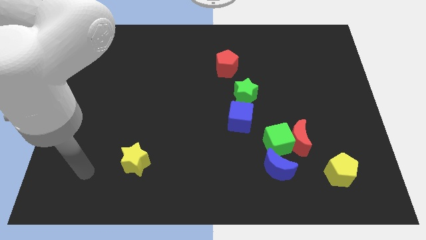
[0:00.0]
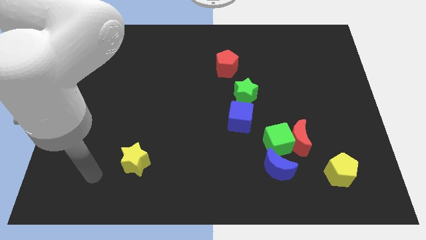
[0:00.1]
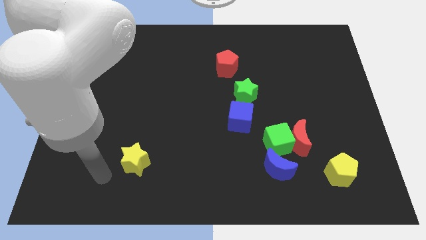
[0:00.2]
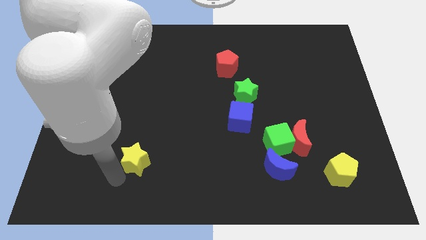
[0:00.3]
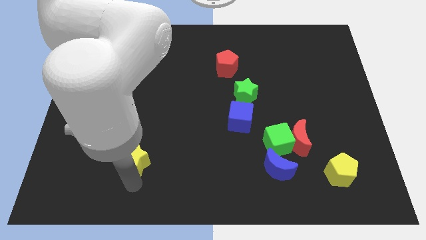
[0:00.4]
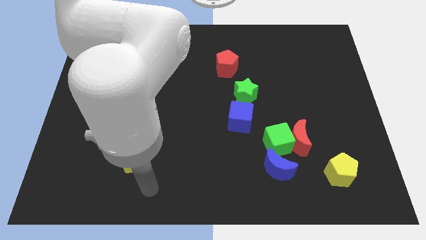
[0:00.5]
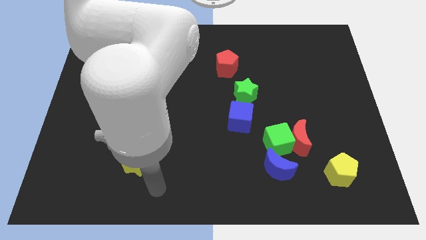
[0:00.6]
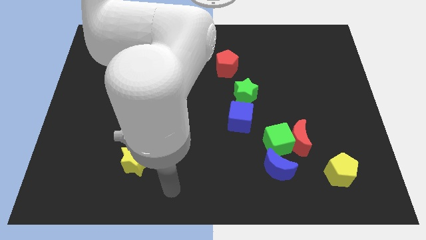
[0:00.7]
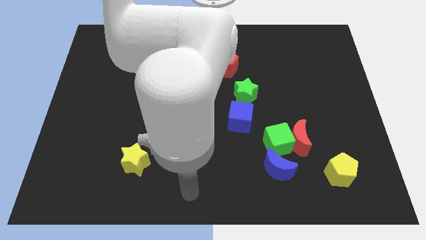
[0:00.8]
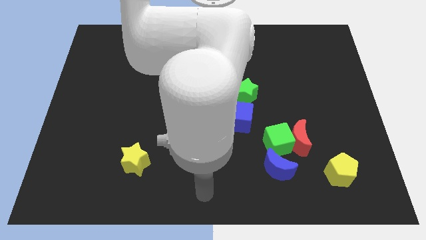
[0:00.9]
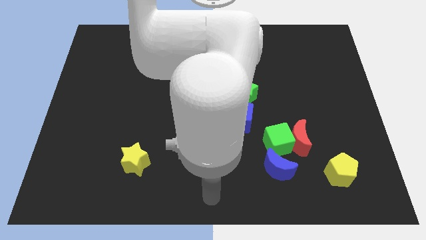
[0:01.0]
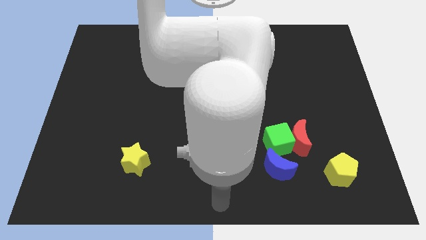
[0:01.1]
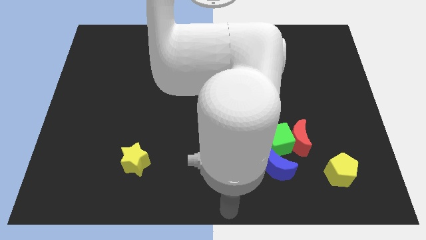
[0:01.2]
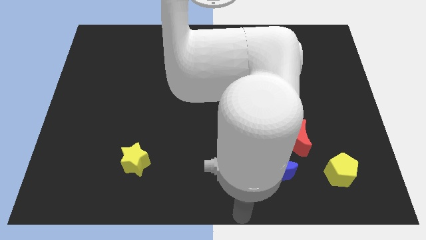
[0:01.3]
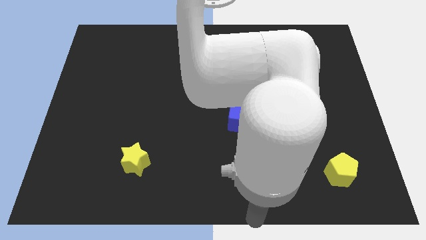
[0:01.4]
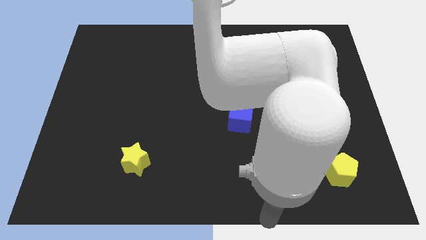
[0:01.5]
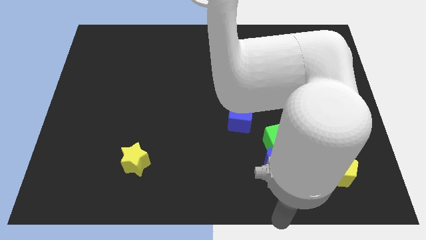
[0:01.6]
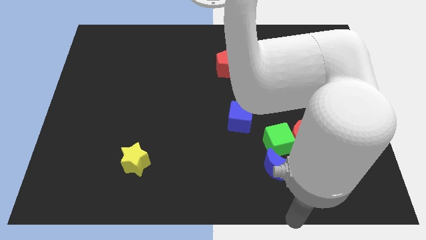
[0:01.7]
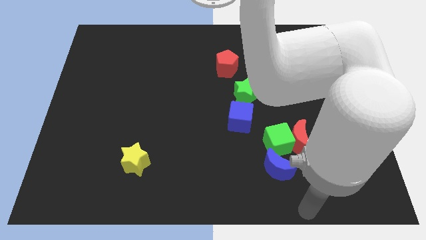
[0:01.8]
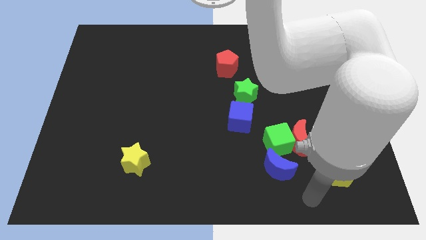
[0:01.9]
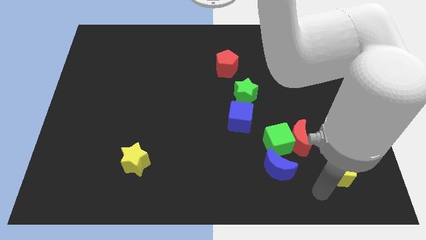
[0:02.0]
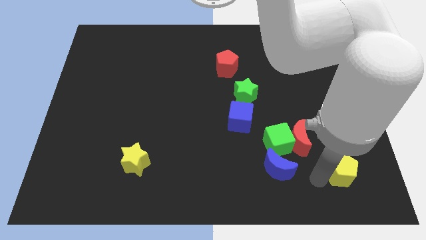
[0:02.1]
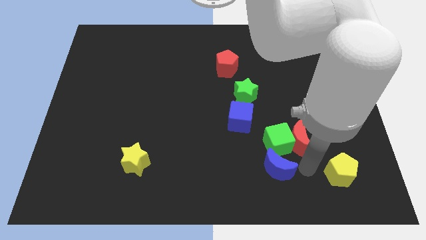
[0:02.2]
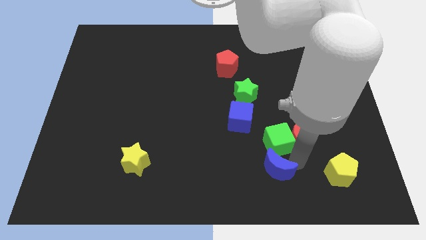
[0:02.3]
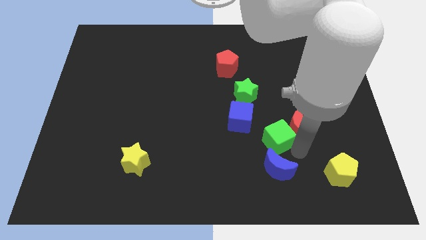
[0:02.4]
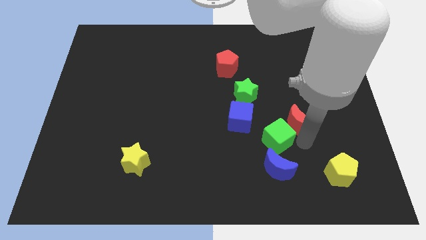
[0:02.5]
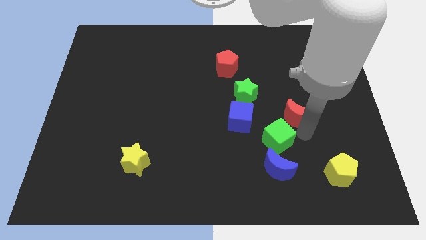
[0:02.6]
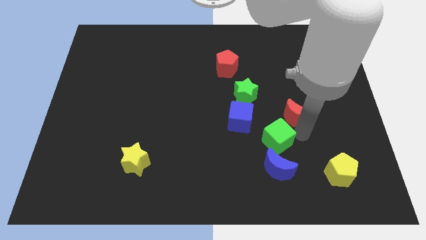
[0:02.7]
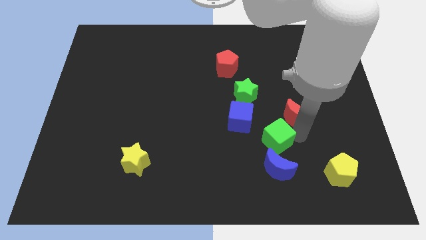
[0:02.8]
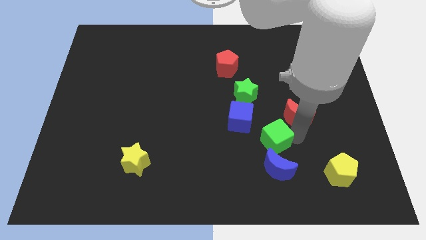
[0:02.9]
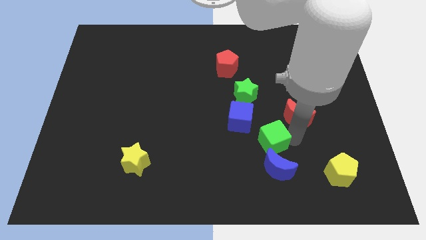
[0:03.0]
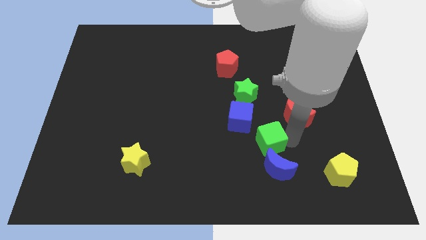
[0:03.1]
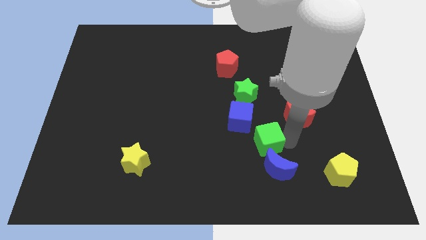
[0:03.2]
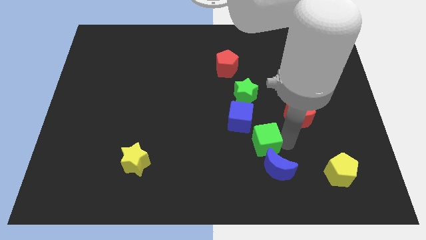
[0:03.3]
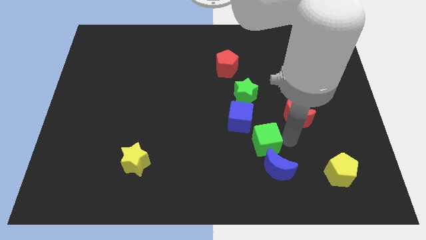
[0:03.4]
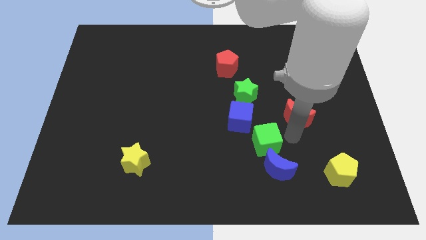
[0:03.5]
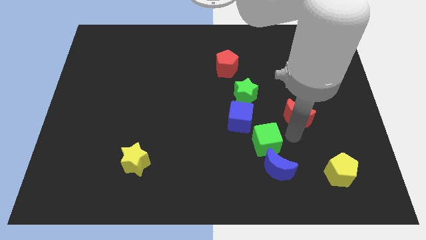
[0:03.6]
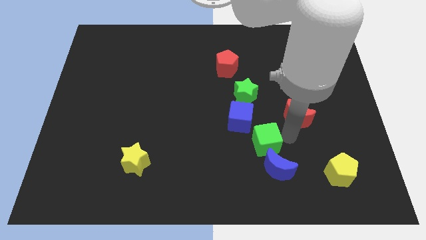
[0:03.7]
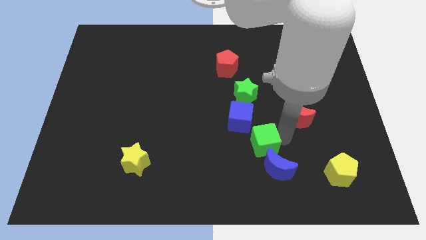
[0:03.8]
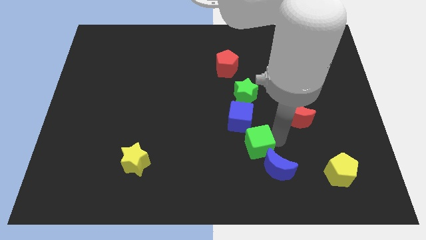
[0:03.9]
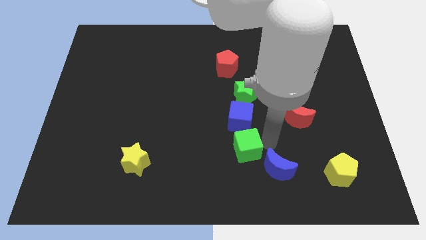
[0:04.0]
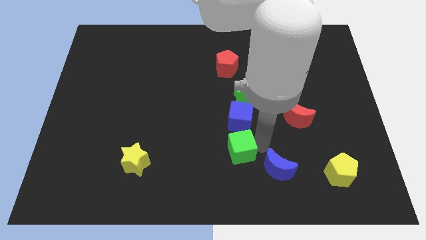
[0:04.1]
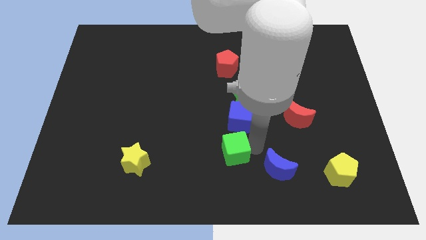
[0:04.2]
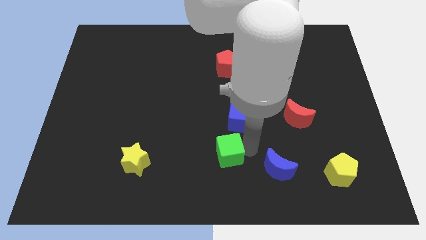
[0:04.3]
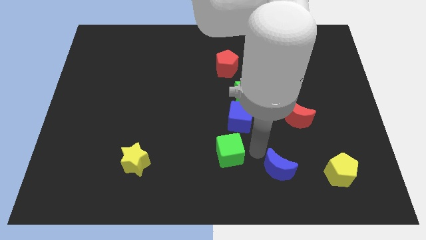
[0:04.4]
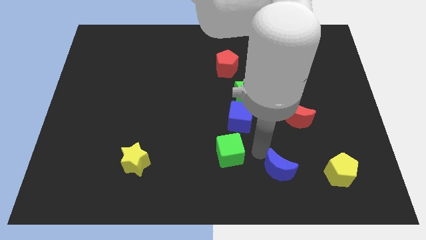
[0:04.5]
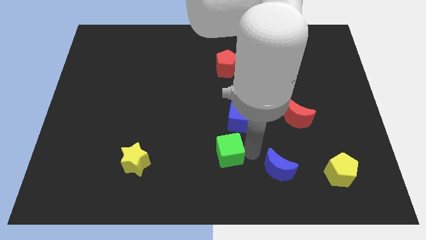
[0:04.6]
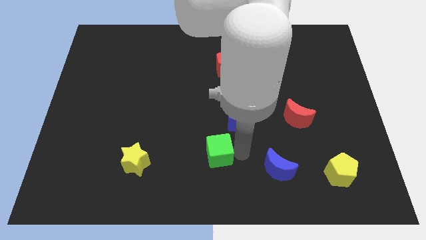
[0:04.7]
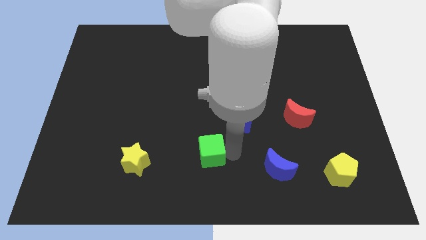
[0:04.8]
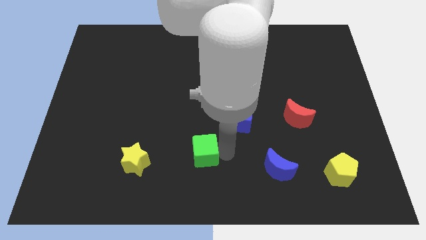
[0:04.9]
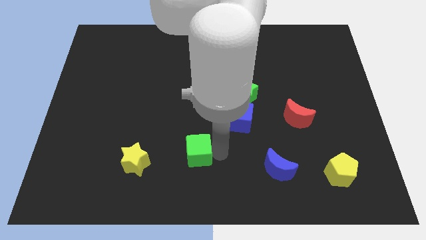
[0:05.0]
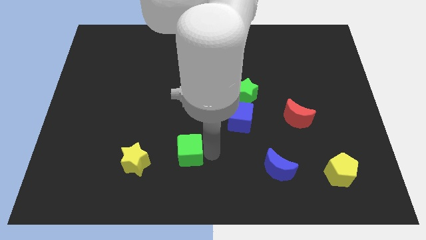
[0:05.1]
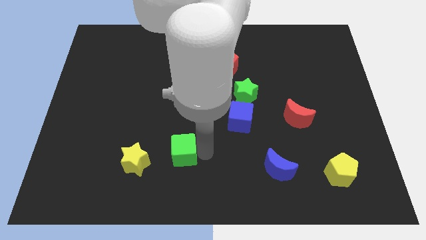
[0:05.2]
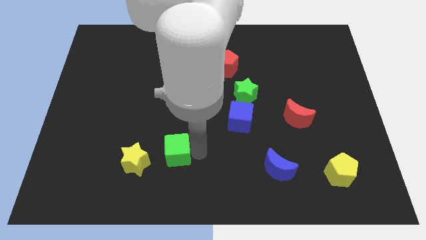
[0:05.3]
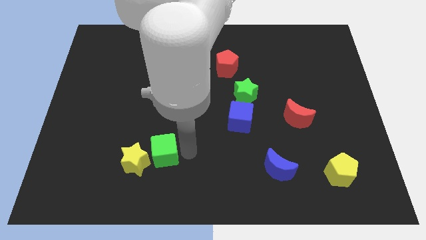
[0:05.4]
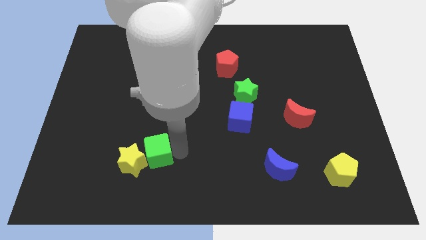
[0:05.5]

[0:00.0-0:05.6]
slide the green cube towards the yellow star

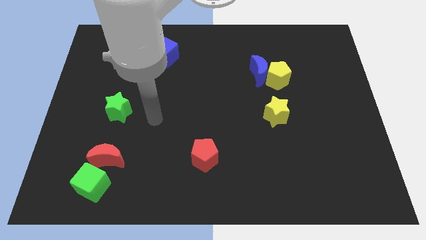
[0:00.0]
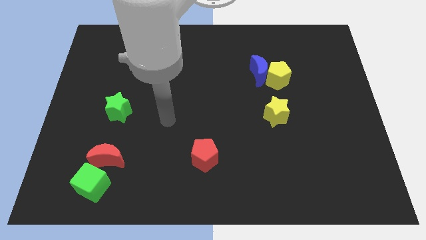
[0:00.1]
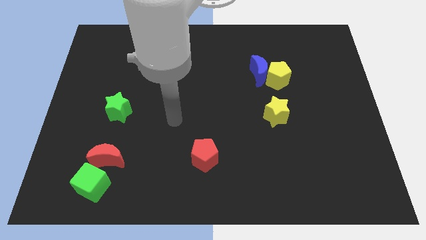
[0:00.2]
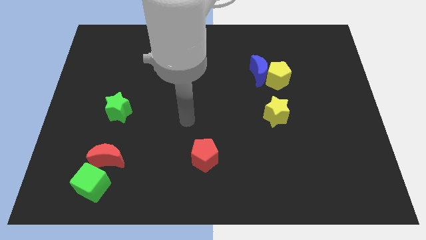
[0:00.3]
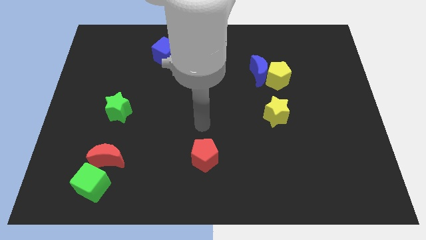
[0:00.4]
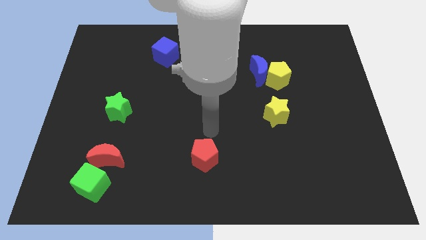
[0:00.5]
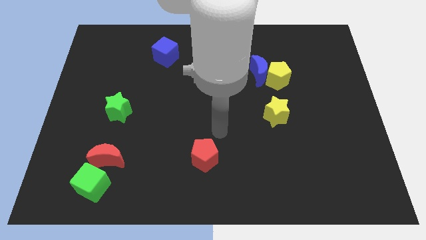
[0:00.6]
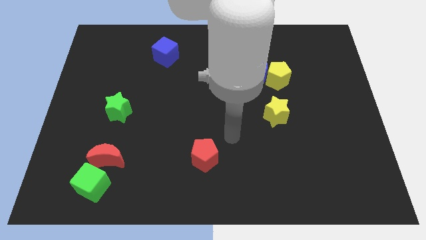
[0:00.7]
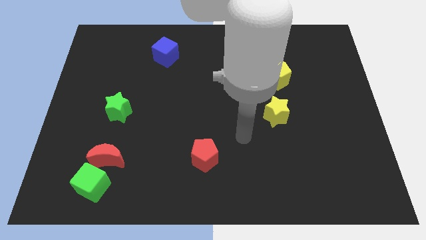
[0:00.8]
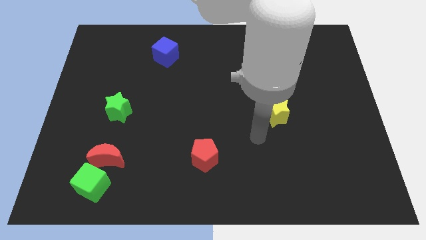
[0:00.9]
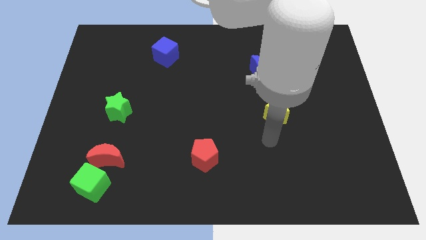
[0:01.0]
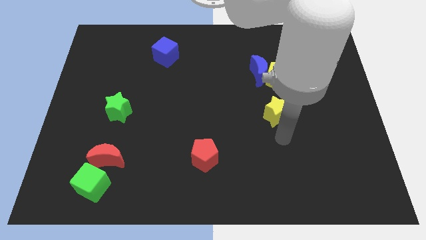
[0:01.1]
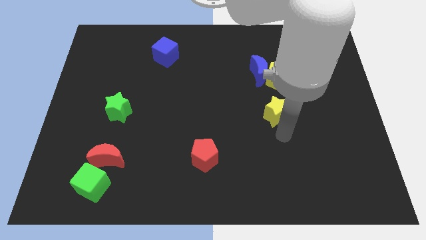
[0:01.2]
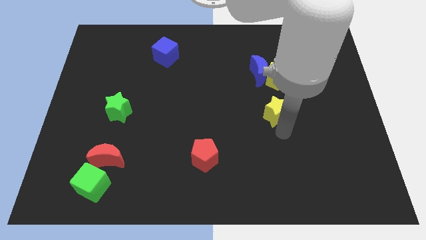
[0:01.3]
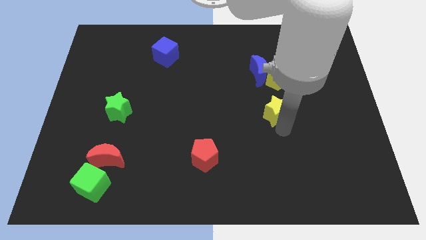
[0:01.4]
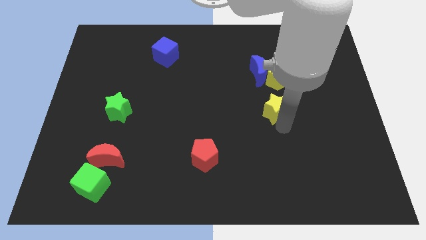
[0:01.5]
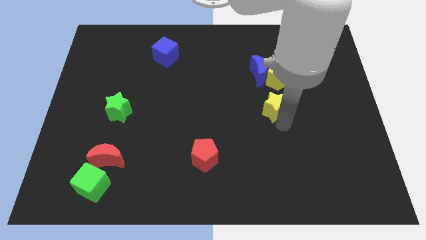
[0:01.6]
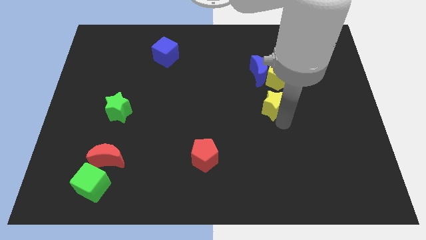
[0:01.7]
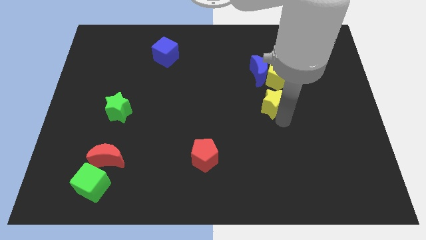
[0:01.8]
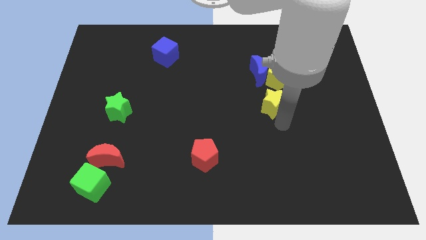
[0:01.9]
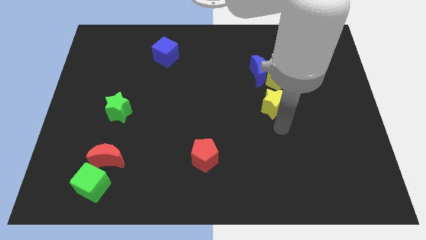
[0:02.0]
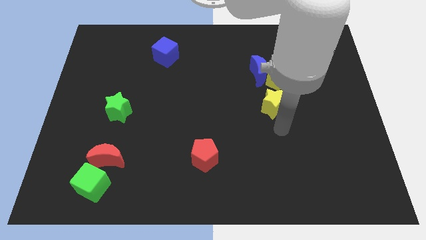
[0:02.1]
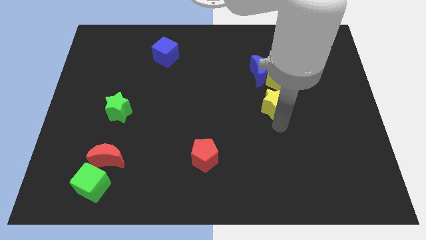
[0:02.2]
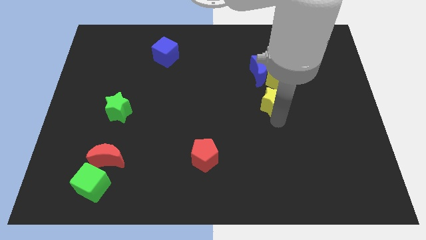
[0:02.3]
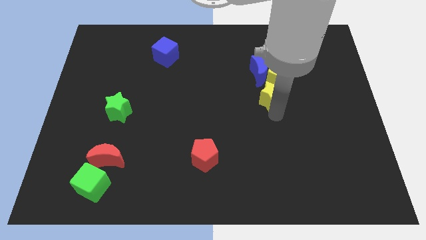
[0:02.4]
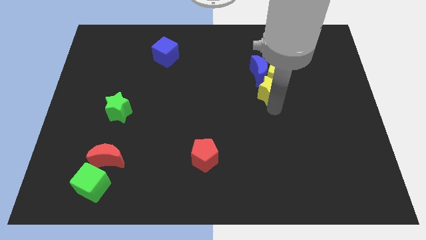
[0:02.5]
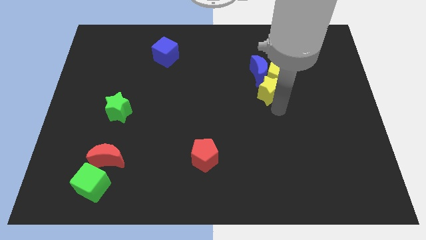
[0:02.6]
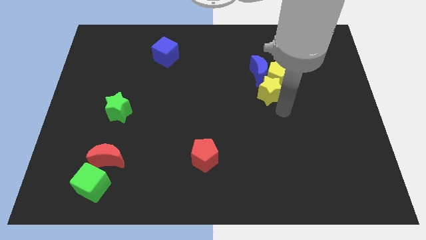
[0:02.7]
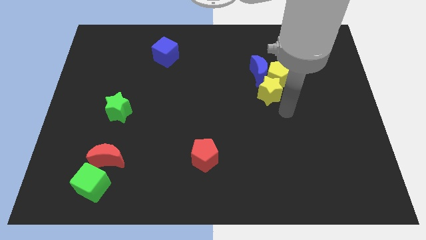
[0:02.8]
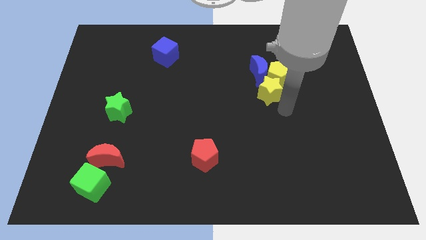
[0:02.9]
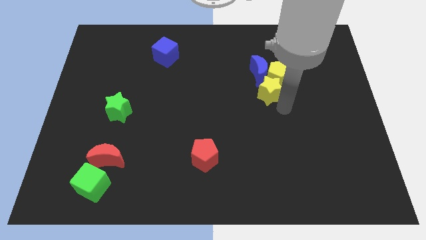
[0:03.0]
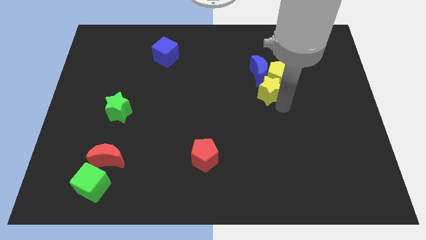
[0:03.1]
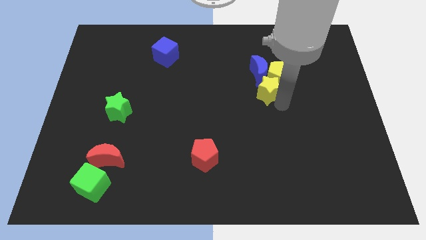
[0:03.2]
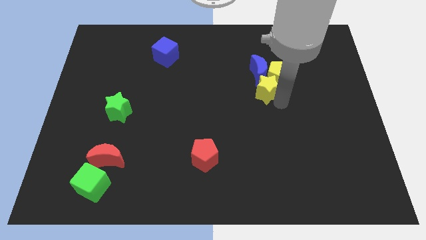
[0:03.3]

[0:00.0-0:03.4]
push the yellow star close to the blue moon
